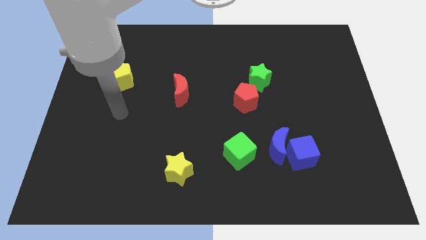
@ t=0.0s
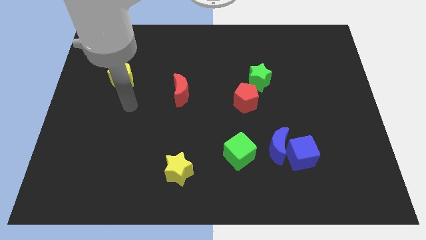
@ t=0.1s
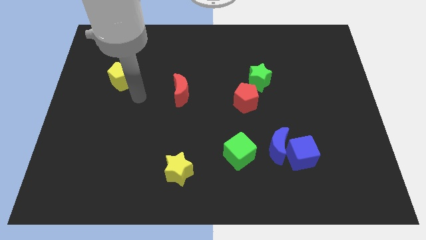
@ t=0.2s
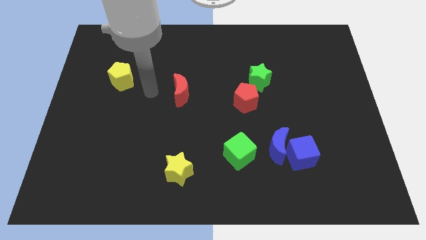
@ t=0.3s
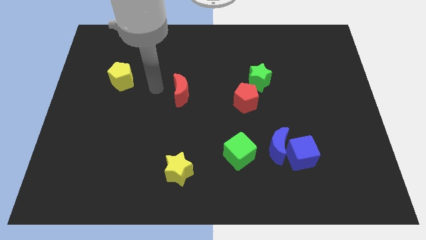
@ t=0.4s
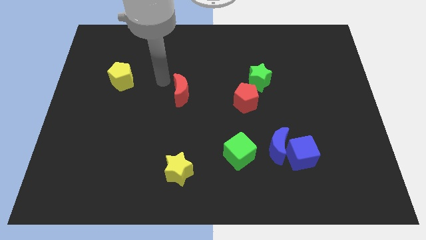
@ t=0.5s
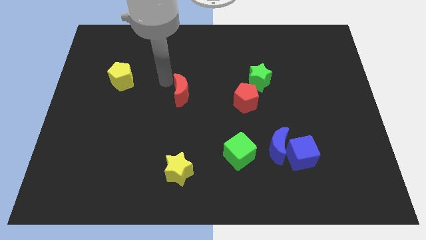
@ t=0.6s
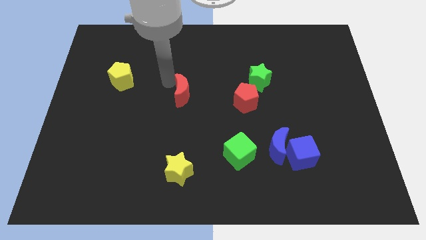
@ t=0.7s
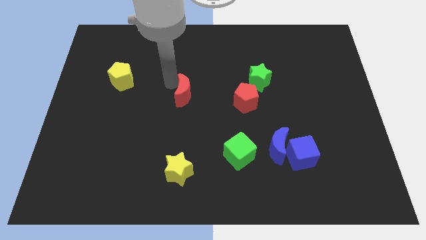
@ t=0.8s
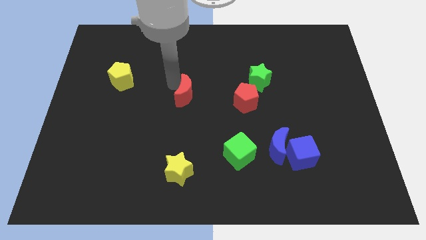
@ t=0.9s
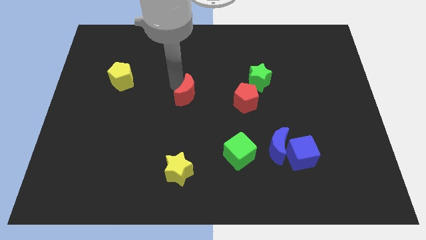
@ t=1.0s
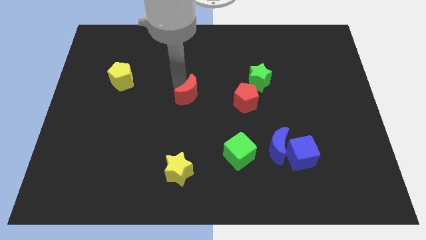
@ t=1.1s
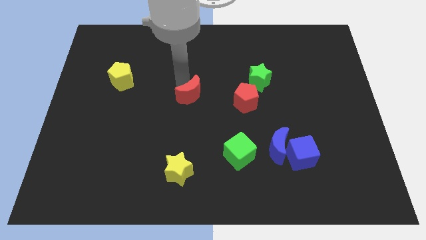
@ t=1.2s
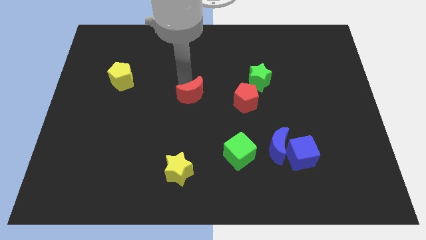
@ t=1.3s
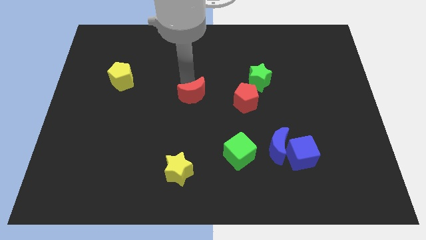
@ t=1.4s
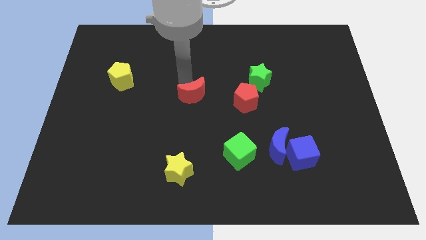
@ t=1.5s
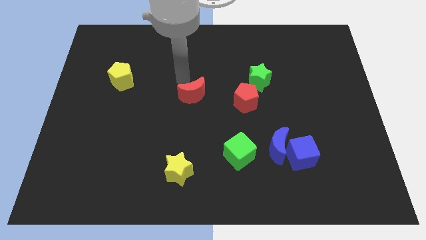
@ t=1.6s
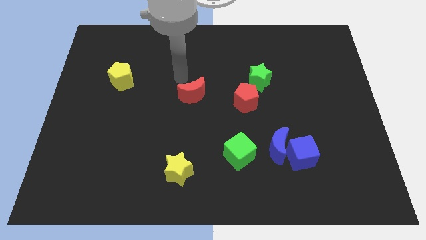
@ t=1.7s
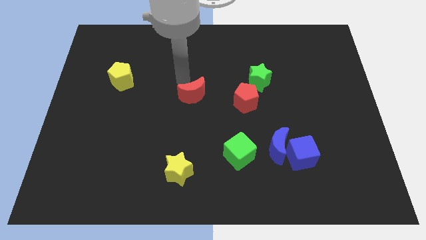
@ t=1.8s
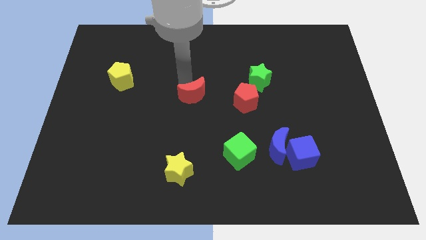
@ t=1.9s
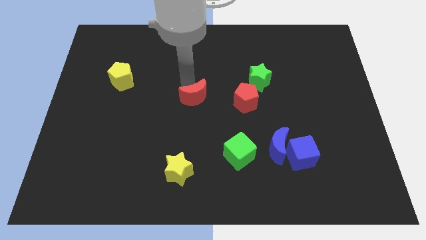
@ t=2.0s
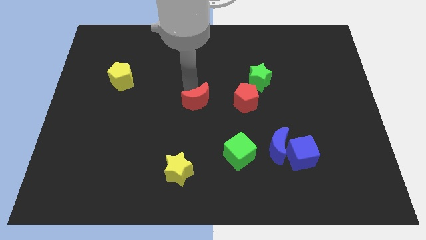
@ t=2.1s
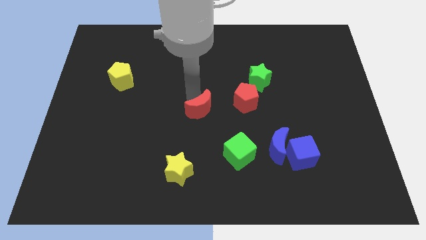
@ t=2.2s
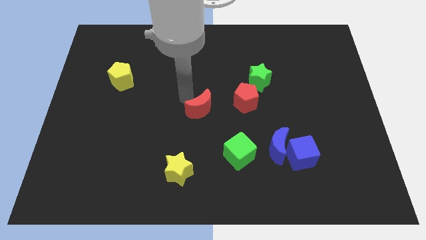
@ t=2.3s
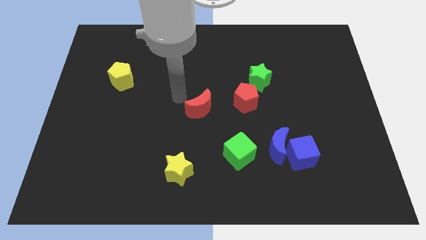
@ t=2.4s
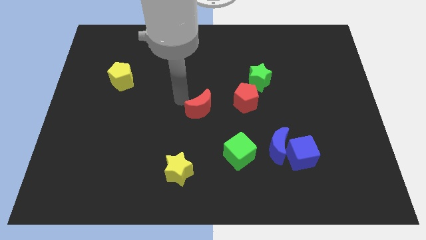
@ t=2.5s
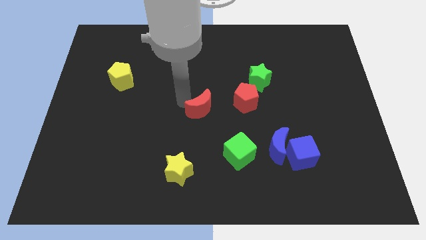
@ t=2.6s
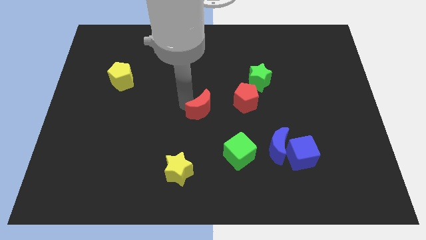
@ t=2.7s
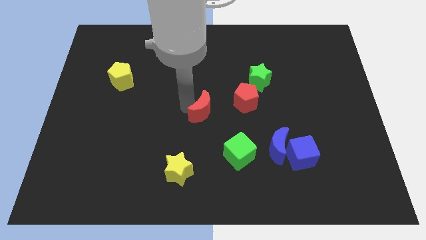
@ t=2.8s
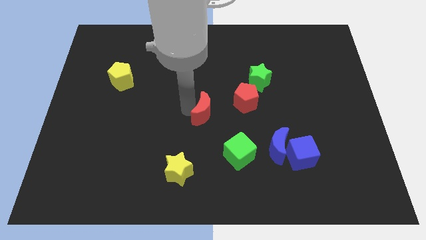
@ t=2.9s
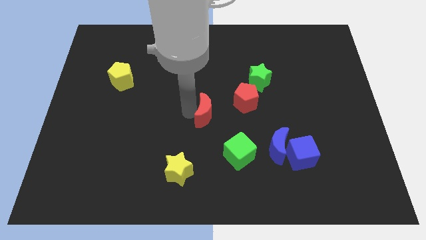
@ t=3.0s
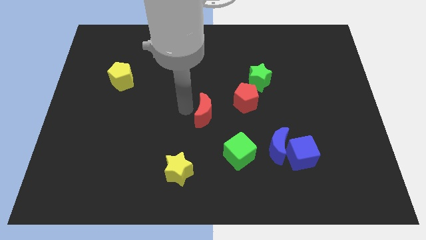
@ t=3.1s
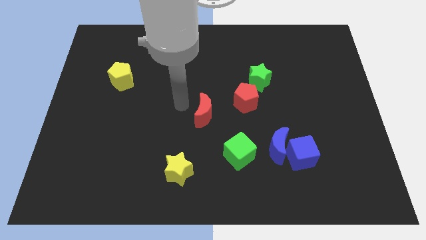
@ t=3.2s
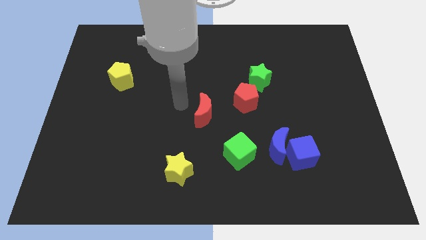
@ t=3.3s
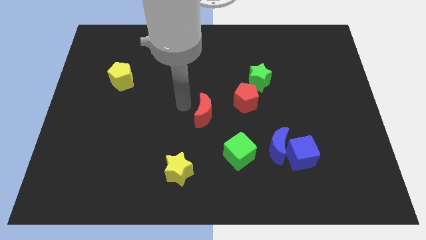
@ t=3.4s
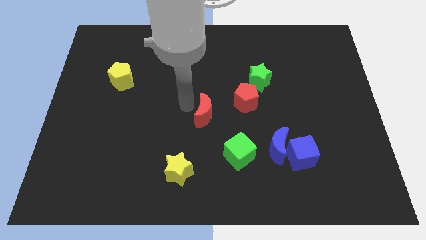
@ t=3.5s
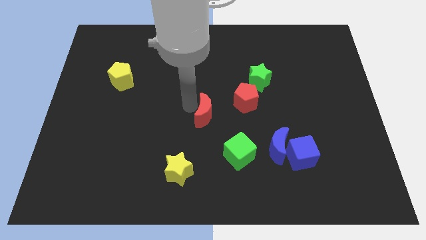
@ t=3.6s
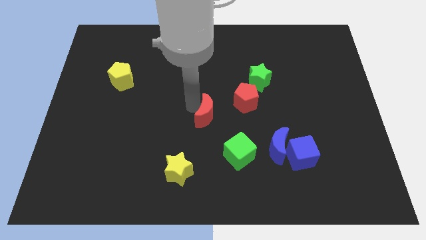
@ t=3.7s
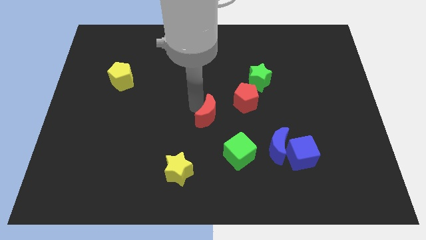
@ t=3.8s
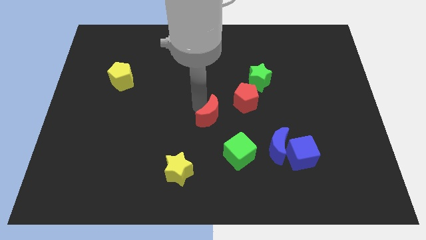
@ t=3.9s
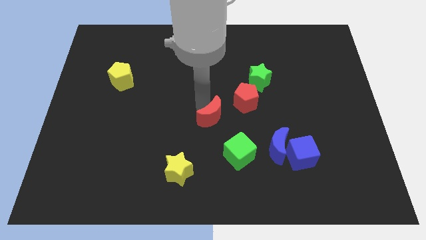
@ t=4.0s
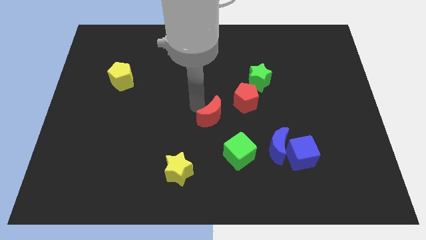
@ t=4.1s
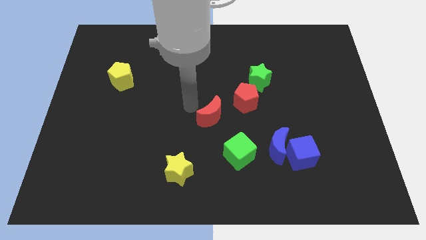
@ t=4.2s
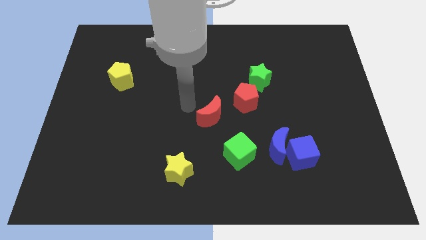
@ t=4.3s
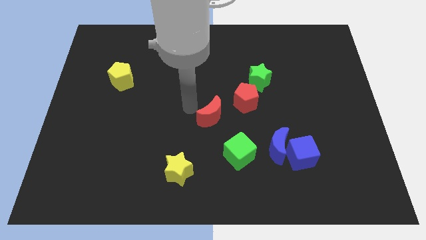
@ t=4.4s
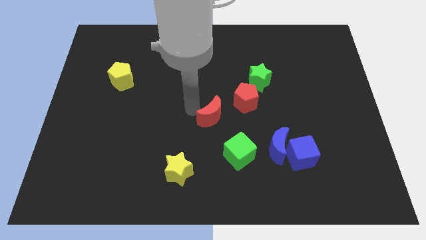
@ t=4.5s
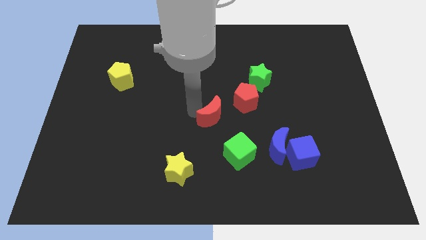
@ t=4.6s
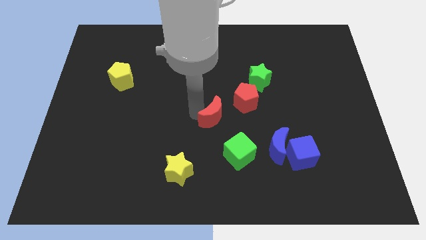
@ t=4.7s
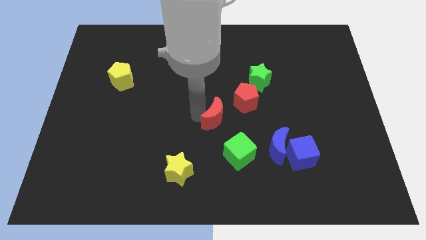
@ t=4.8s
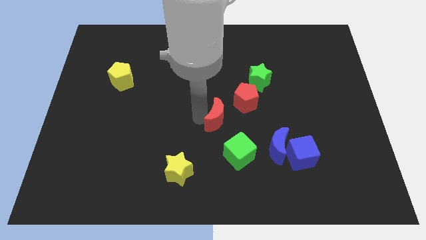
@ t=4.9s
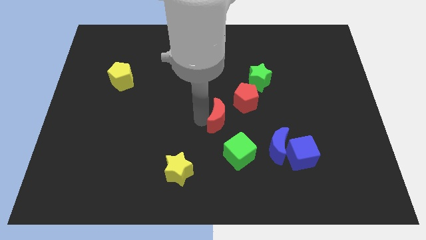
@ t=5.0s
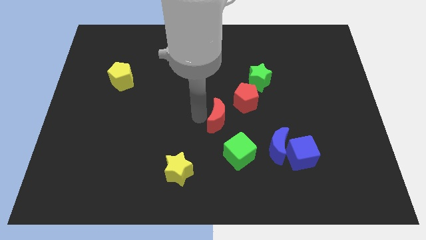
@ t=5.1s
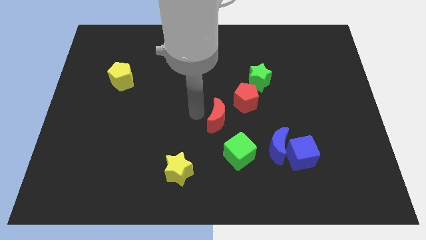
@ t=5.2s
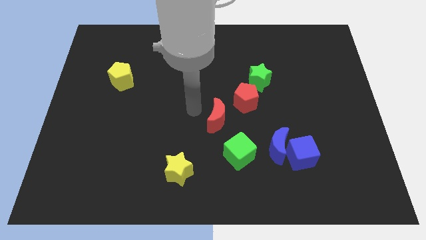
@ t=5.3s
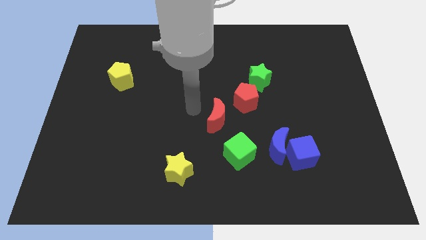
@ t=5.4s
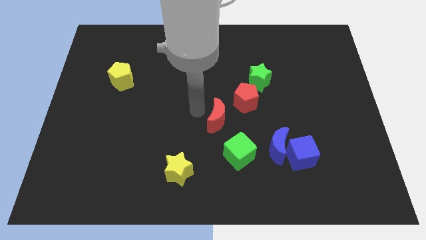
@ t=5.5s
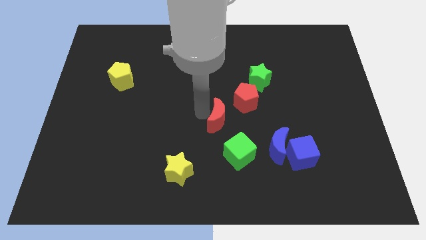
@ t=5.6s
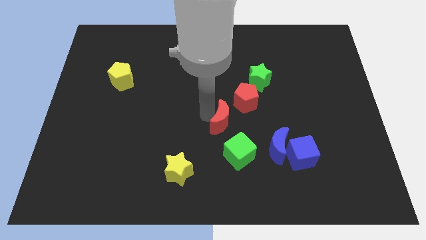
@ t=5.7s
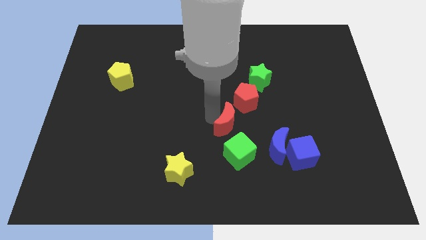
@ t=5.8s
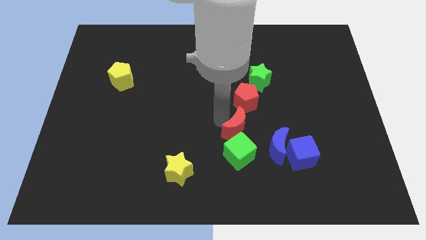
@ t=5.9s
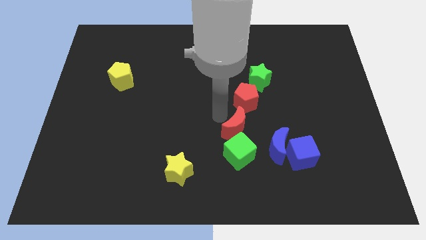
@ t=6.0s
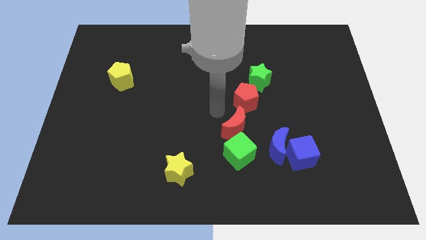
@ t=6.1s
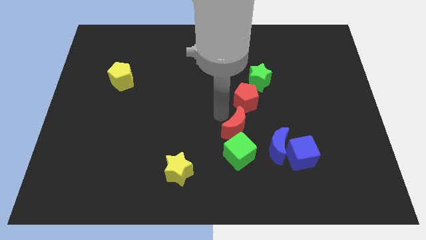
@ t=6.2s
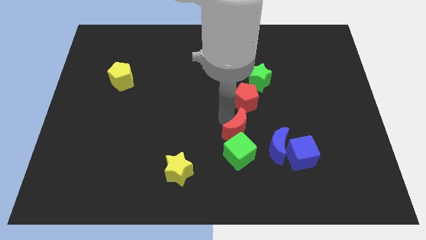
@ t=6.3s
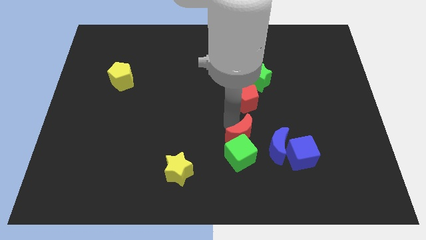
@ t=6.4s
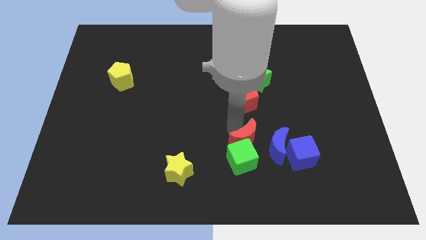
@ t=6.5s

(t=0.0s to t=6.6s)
move the red moon down and right

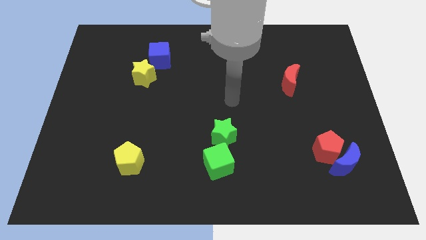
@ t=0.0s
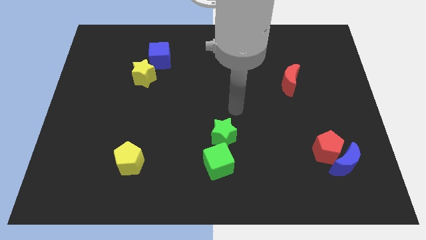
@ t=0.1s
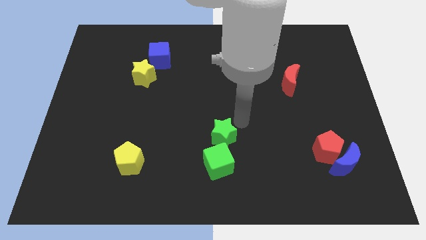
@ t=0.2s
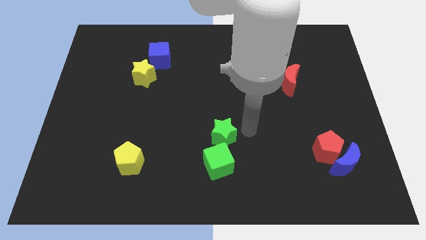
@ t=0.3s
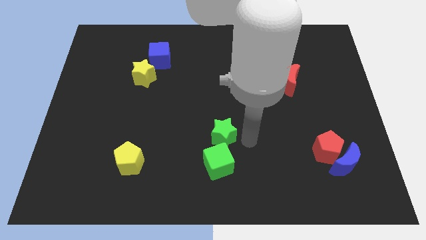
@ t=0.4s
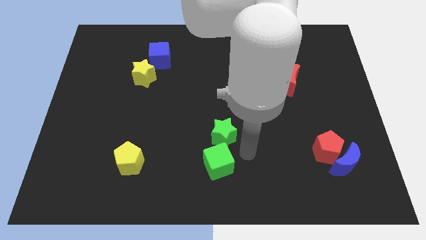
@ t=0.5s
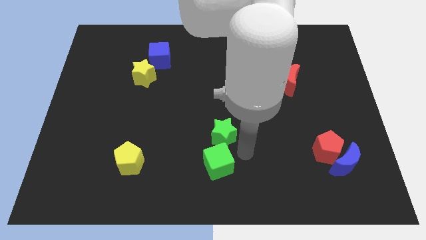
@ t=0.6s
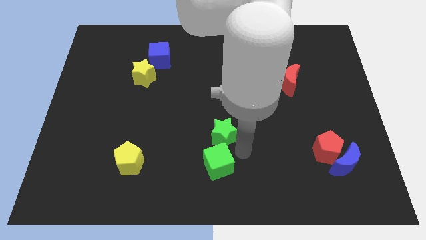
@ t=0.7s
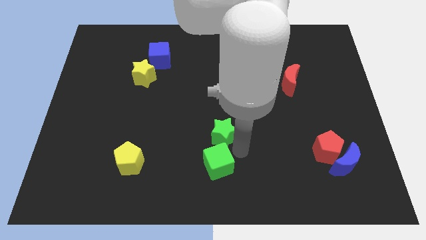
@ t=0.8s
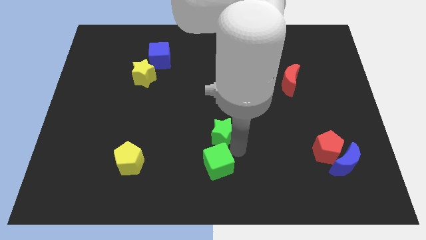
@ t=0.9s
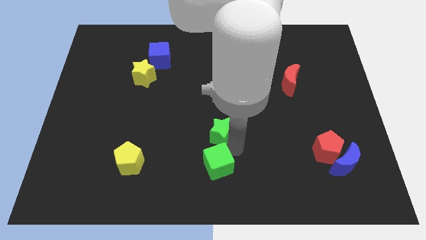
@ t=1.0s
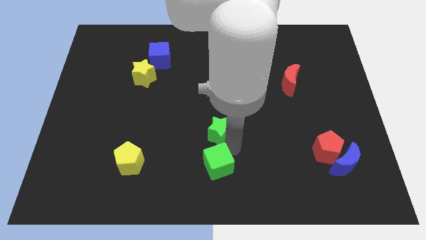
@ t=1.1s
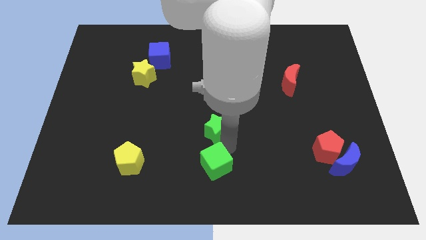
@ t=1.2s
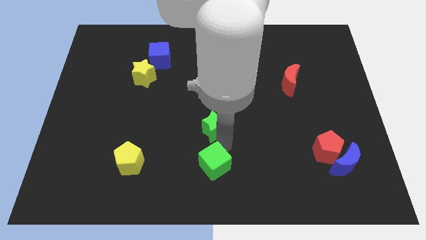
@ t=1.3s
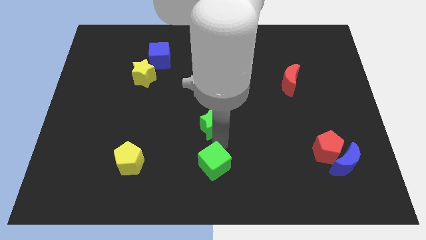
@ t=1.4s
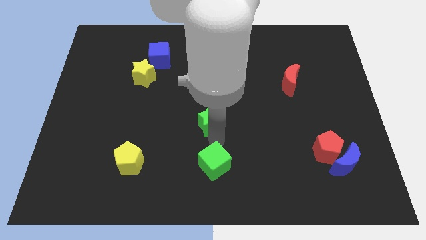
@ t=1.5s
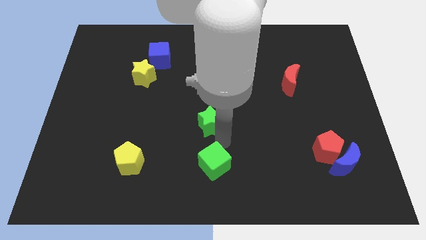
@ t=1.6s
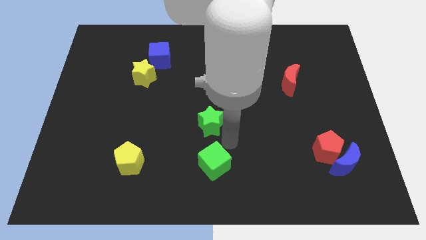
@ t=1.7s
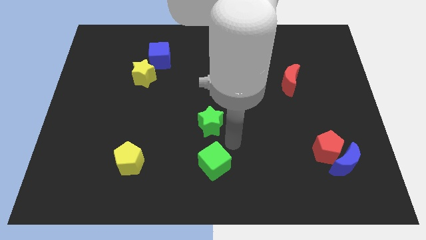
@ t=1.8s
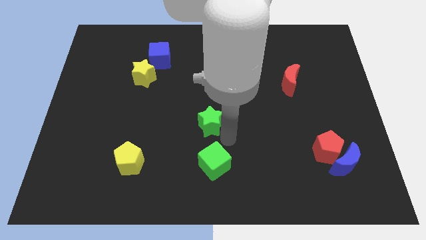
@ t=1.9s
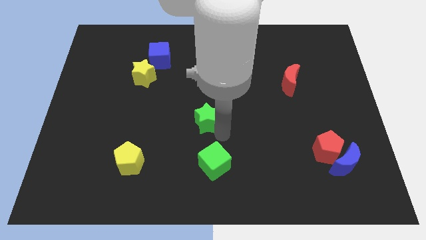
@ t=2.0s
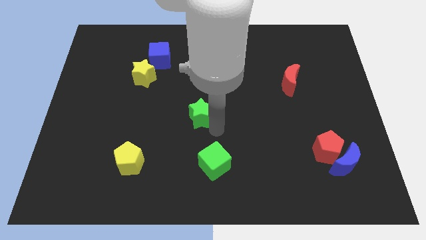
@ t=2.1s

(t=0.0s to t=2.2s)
slide the green star up and to the left diagonally somewhat
